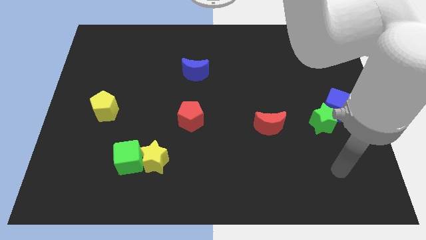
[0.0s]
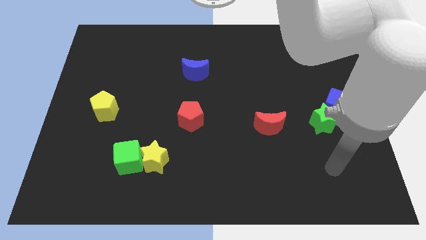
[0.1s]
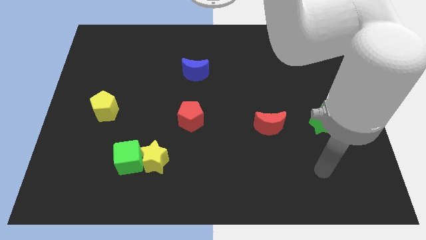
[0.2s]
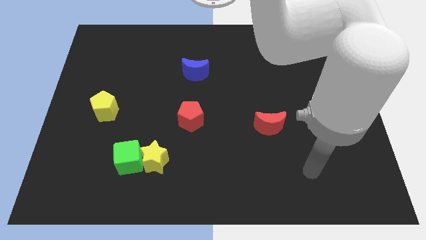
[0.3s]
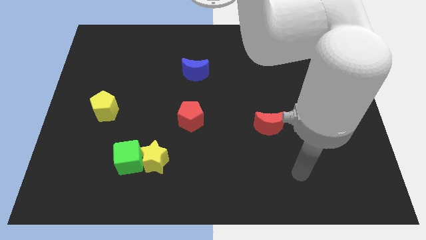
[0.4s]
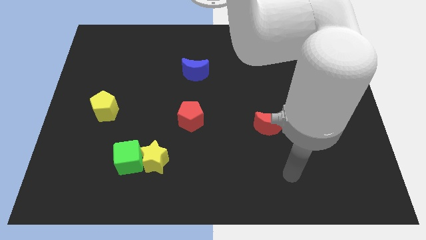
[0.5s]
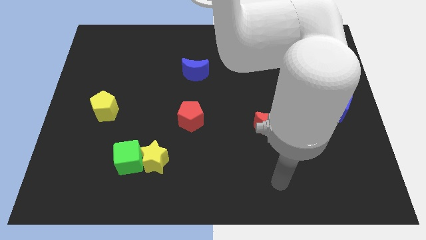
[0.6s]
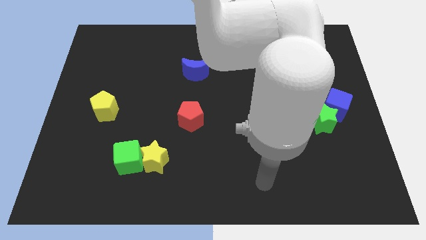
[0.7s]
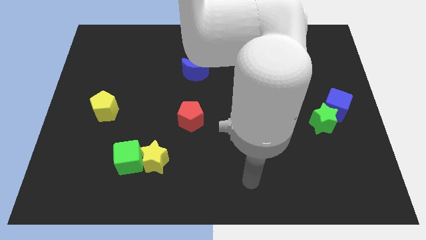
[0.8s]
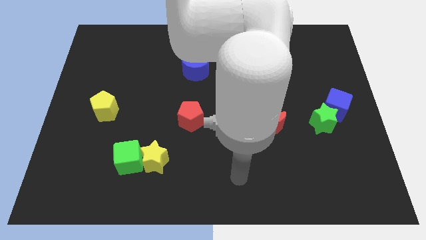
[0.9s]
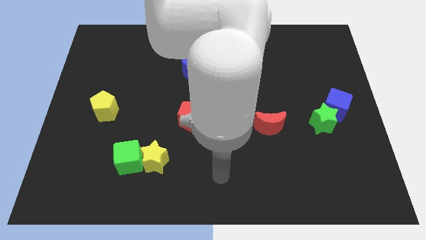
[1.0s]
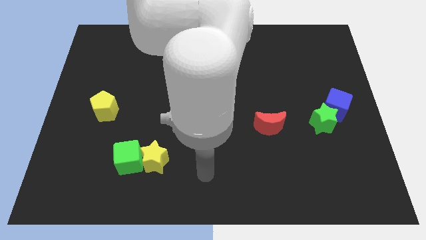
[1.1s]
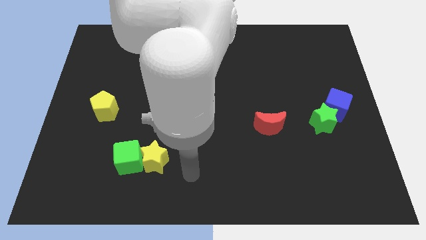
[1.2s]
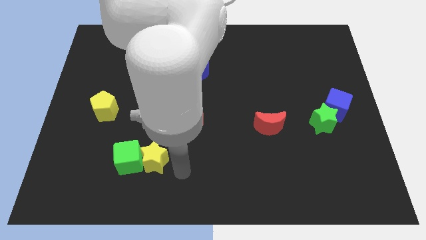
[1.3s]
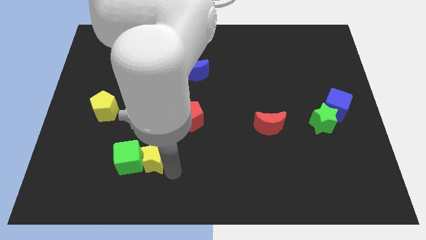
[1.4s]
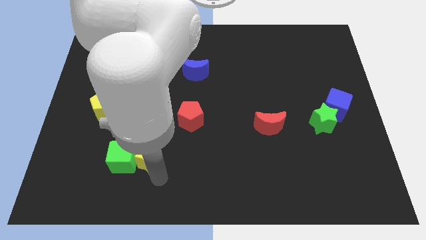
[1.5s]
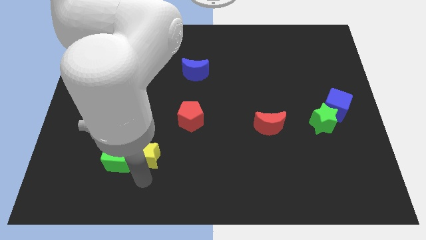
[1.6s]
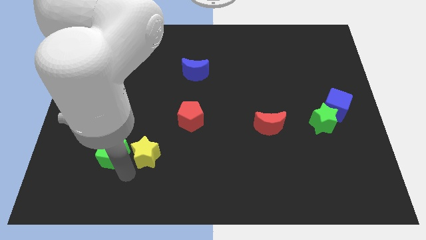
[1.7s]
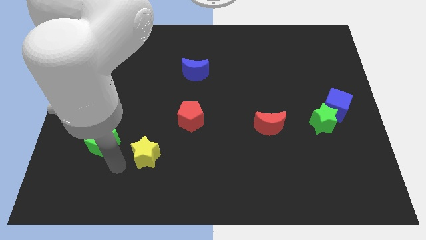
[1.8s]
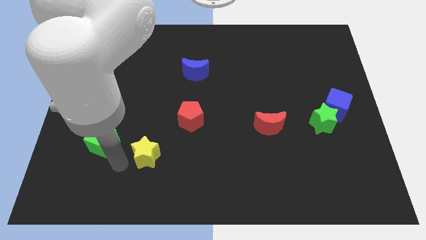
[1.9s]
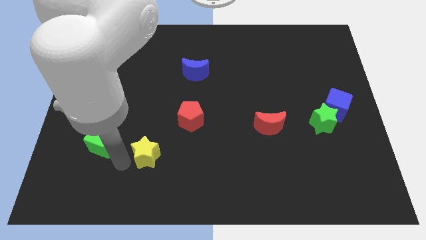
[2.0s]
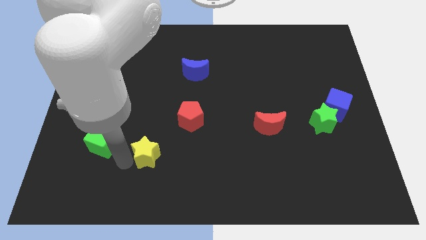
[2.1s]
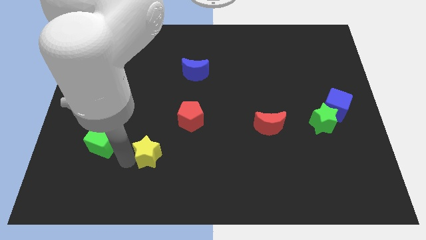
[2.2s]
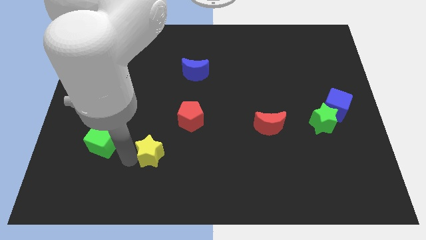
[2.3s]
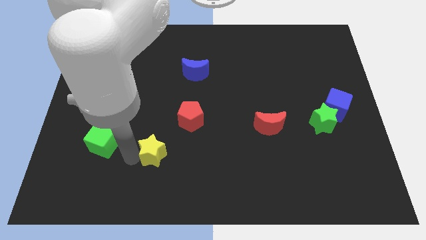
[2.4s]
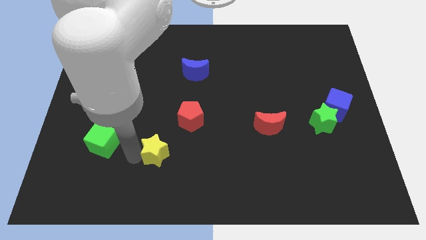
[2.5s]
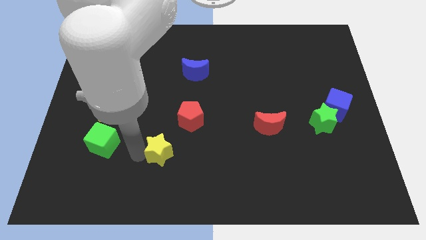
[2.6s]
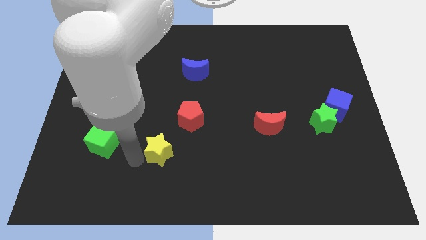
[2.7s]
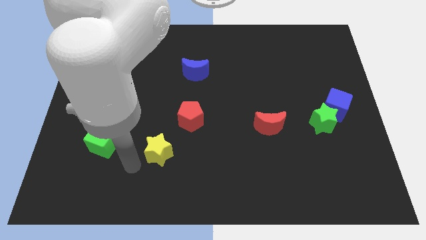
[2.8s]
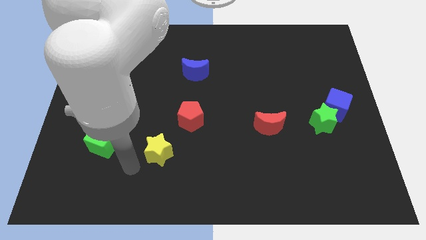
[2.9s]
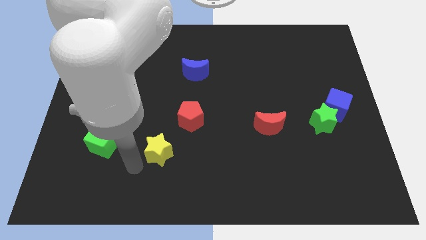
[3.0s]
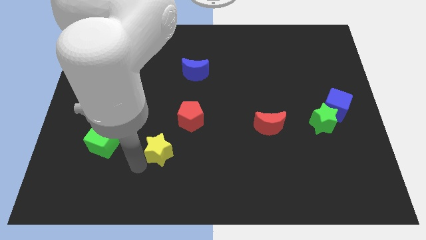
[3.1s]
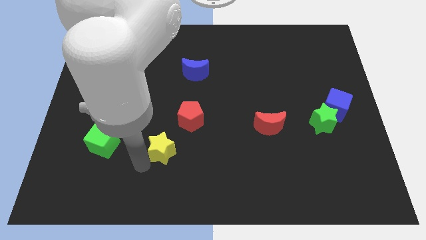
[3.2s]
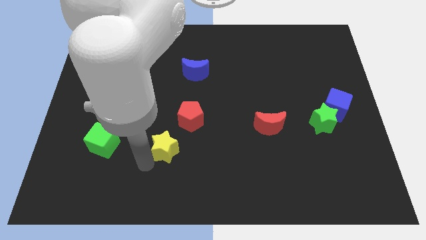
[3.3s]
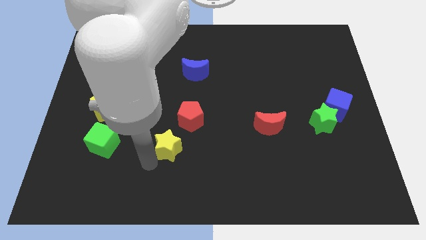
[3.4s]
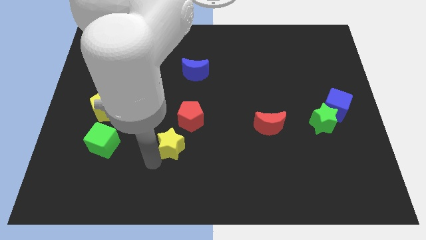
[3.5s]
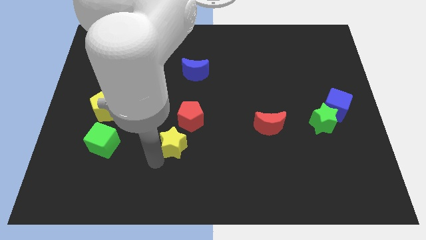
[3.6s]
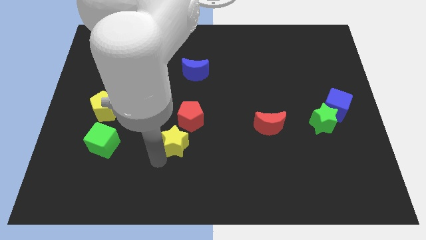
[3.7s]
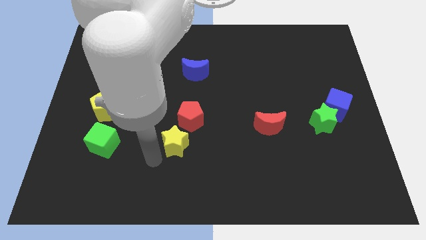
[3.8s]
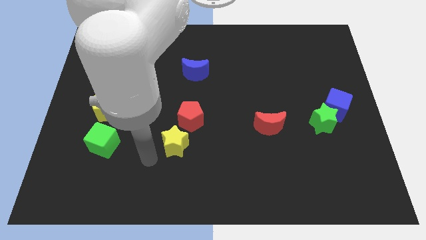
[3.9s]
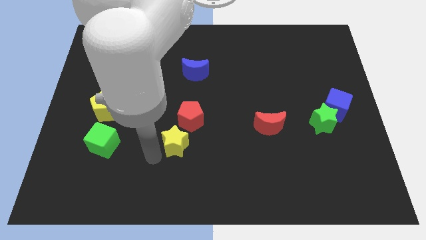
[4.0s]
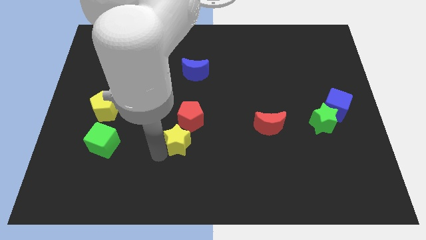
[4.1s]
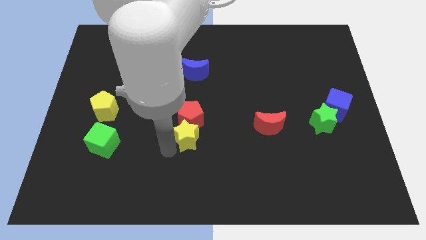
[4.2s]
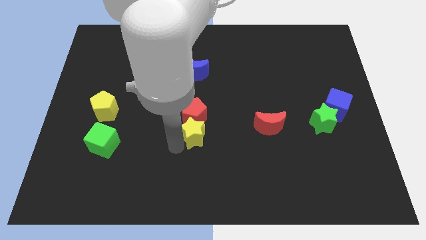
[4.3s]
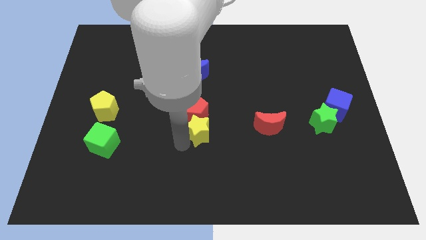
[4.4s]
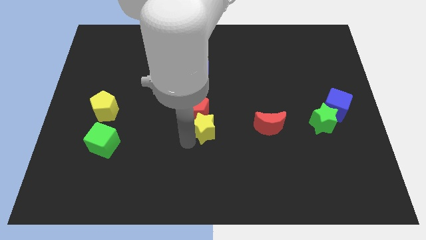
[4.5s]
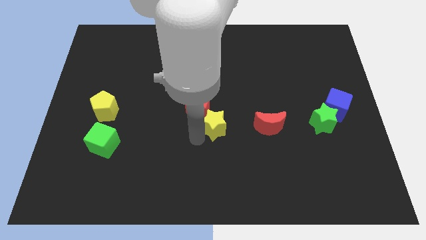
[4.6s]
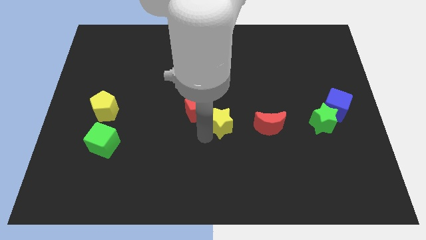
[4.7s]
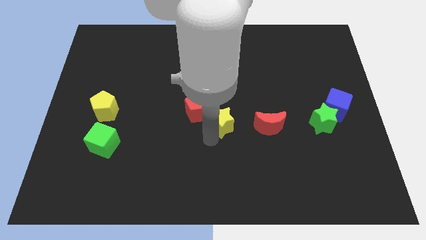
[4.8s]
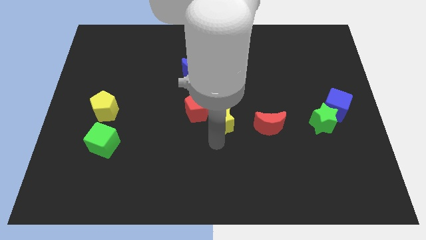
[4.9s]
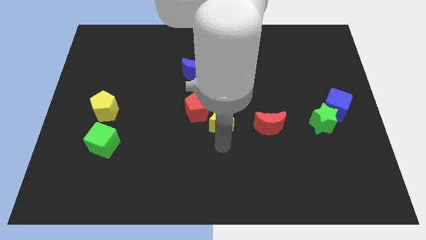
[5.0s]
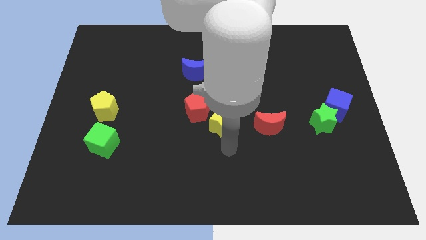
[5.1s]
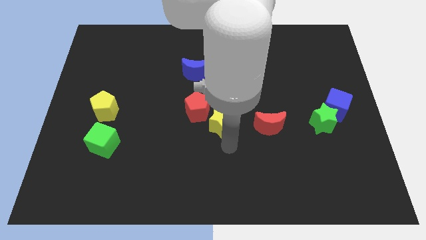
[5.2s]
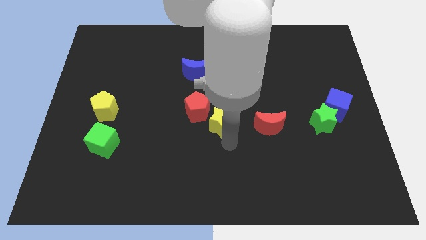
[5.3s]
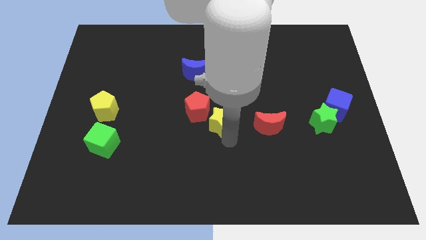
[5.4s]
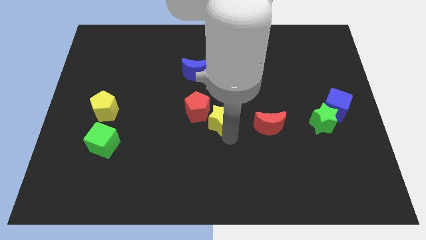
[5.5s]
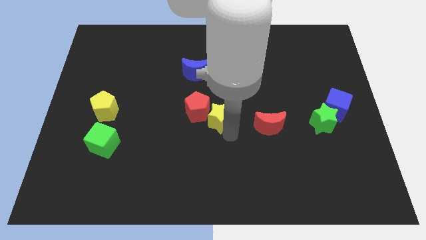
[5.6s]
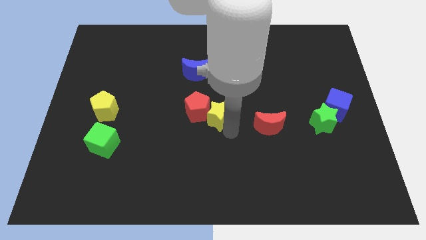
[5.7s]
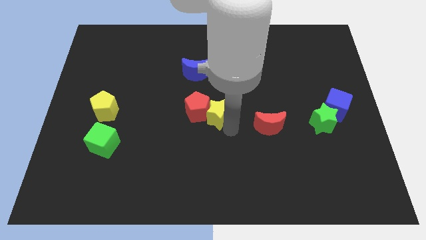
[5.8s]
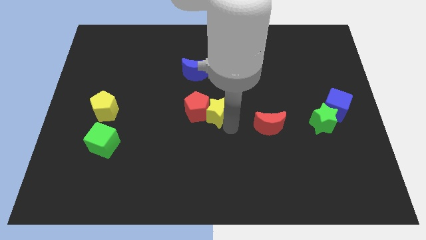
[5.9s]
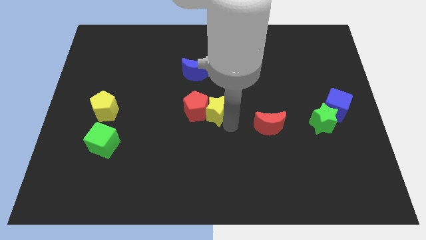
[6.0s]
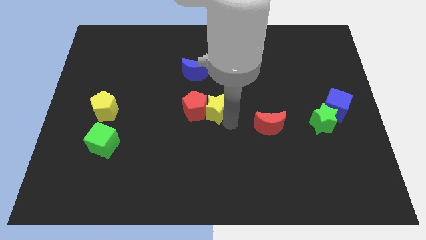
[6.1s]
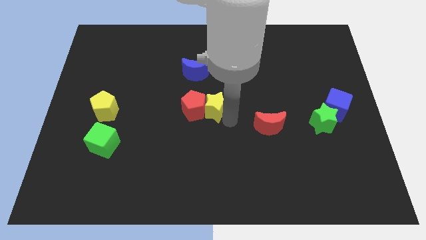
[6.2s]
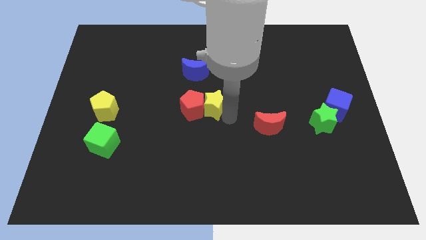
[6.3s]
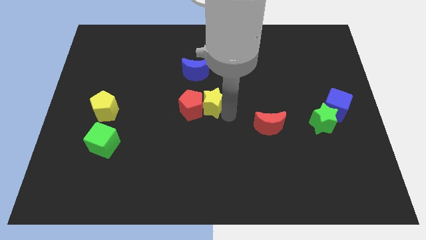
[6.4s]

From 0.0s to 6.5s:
slide the yellow star to the bottom right side of the blue moon
